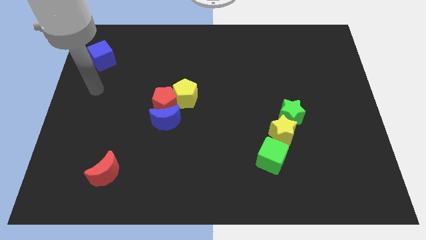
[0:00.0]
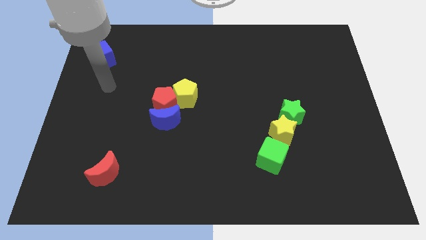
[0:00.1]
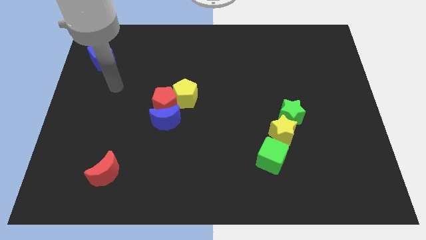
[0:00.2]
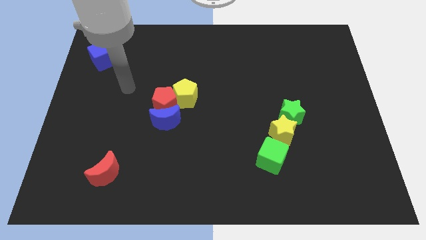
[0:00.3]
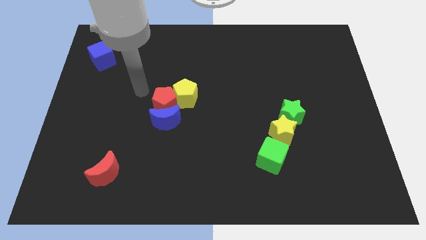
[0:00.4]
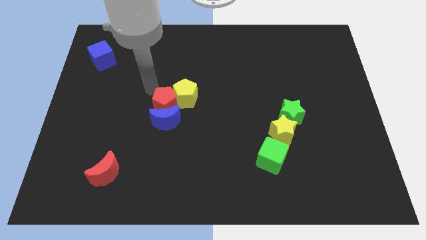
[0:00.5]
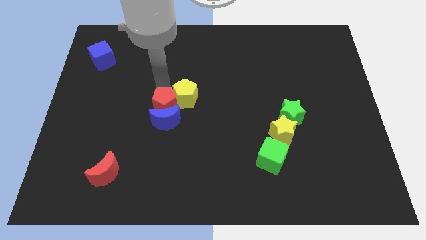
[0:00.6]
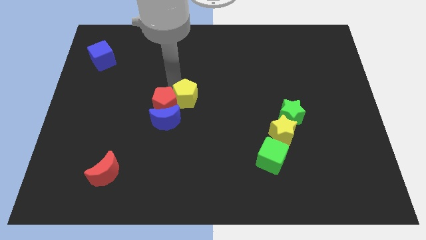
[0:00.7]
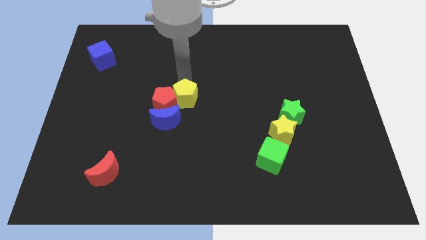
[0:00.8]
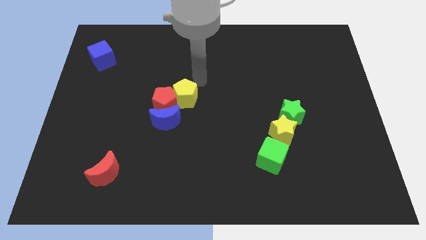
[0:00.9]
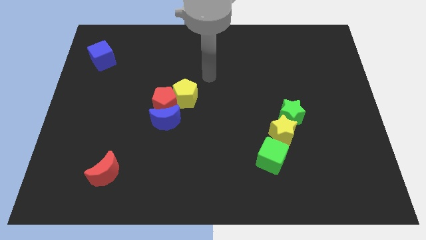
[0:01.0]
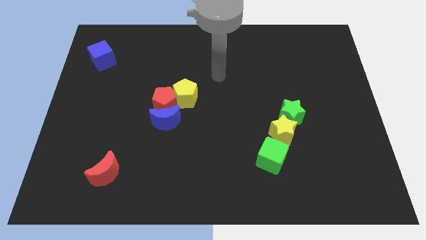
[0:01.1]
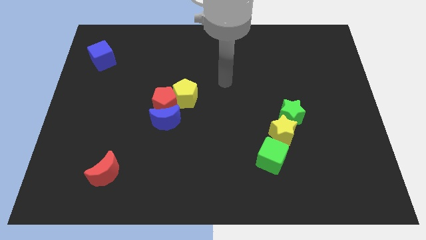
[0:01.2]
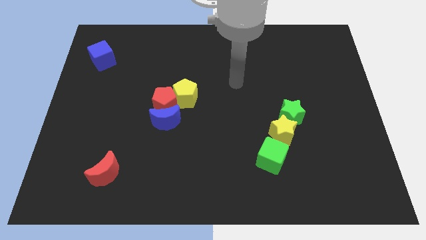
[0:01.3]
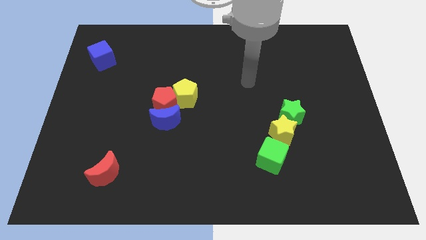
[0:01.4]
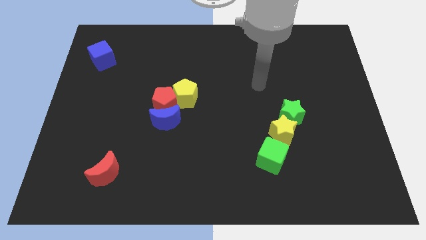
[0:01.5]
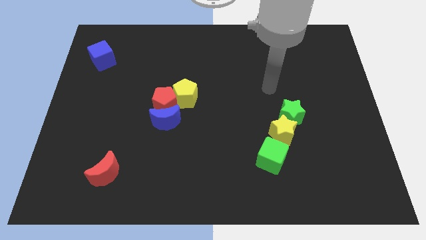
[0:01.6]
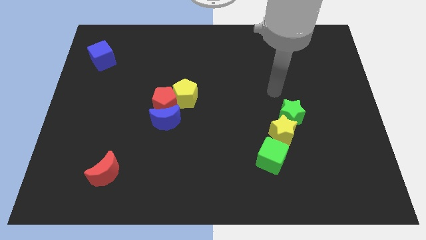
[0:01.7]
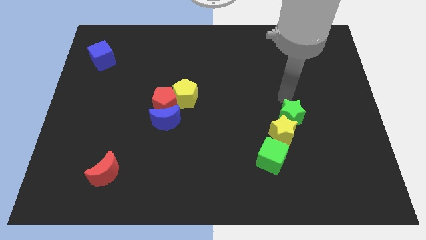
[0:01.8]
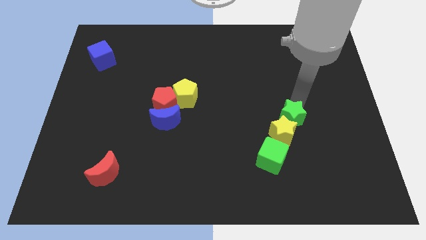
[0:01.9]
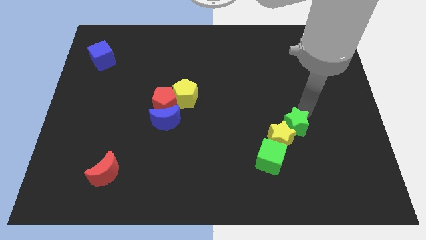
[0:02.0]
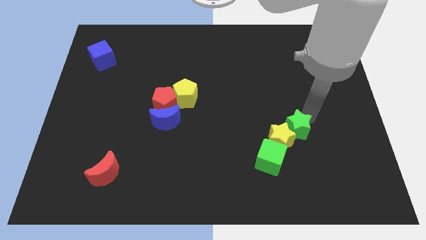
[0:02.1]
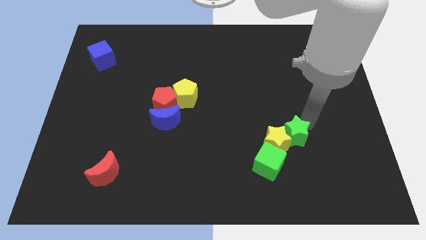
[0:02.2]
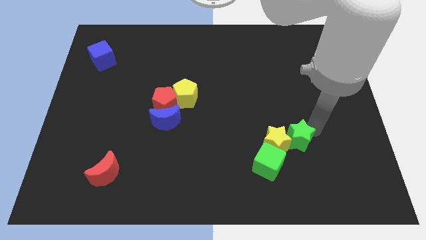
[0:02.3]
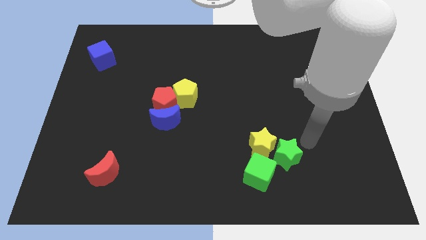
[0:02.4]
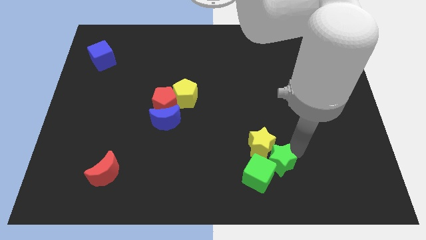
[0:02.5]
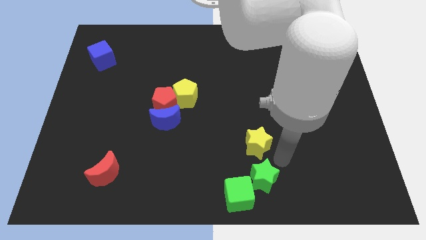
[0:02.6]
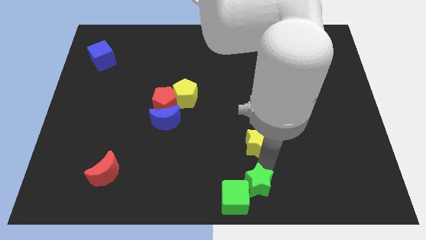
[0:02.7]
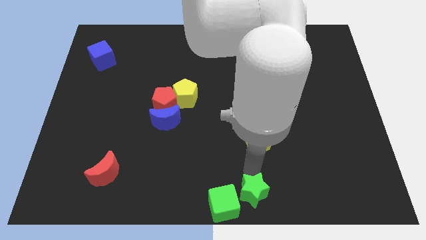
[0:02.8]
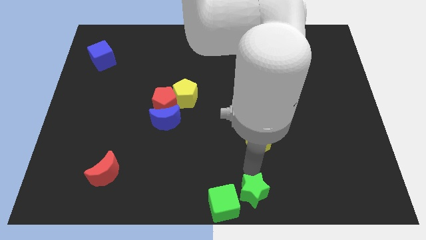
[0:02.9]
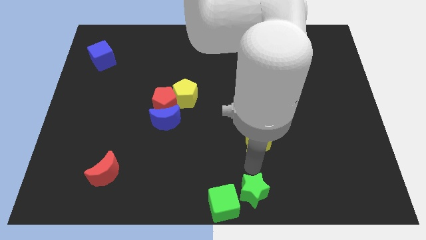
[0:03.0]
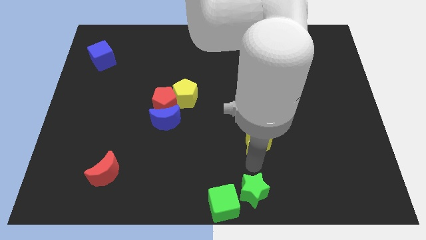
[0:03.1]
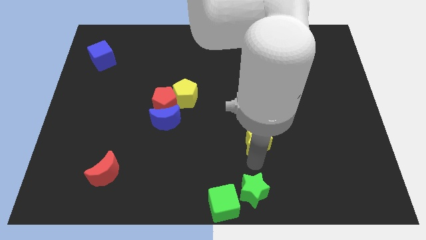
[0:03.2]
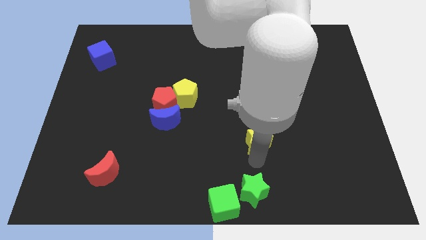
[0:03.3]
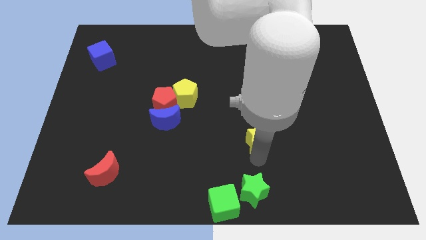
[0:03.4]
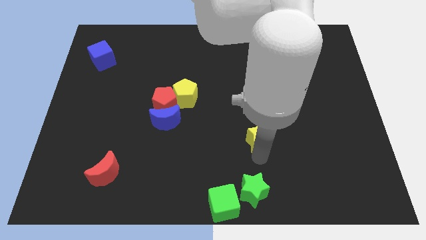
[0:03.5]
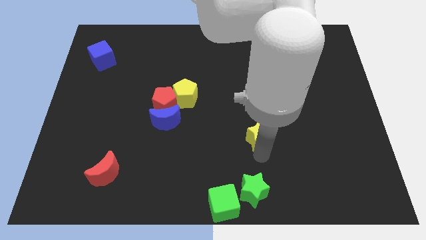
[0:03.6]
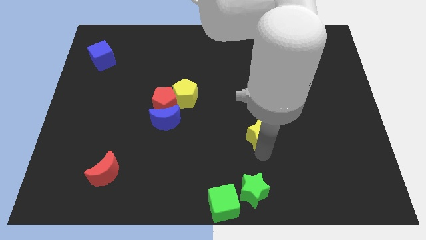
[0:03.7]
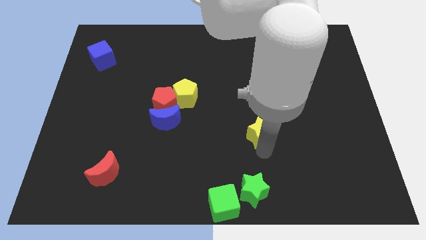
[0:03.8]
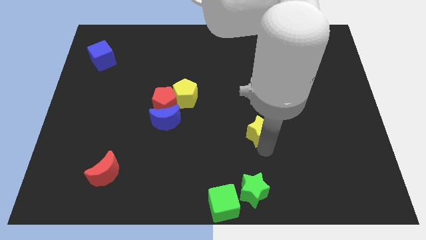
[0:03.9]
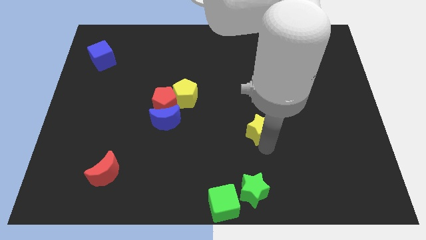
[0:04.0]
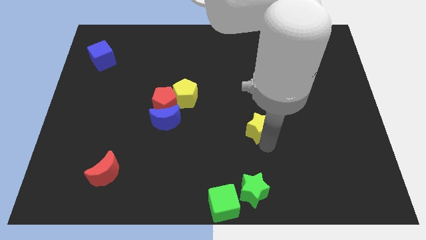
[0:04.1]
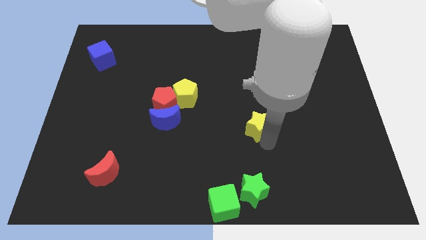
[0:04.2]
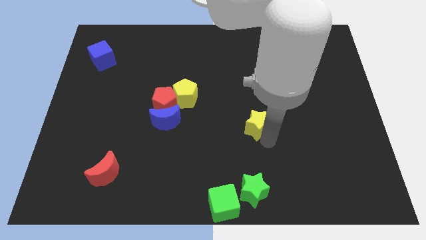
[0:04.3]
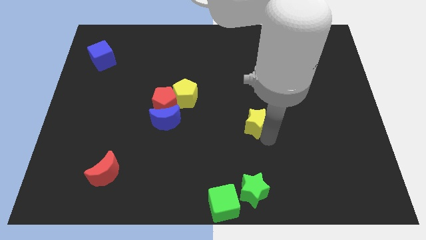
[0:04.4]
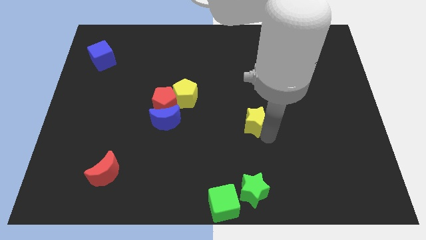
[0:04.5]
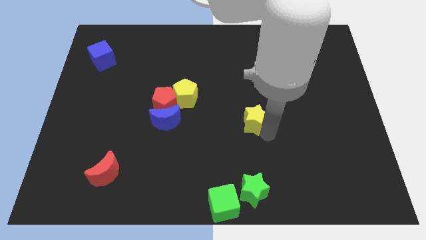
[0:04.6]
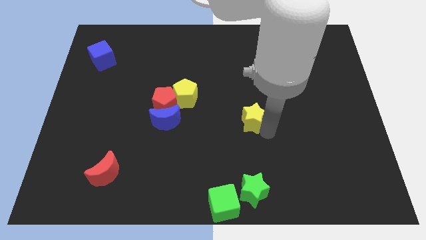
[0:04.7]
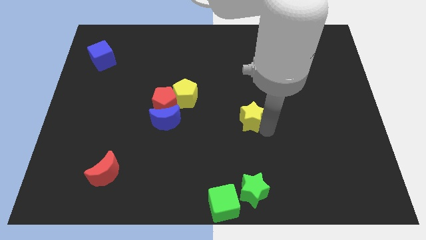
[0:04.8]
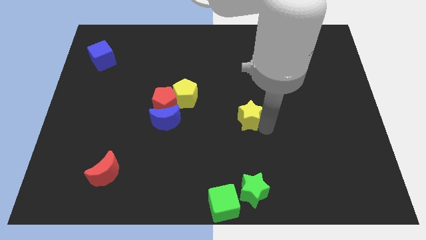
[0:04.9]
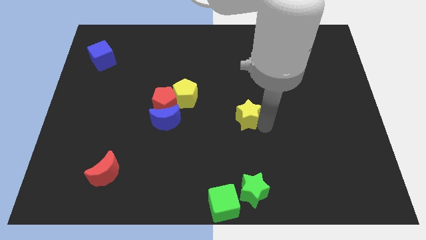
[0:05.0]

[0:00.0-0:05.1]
move the yellow star to the left a little bit

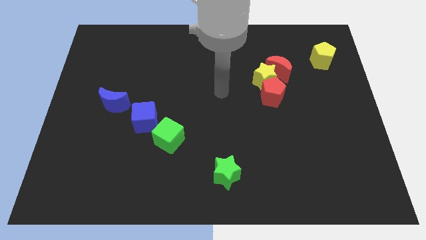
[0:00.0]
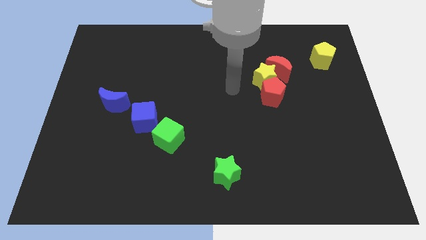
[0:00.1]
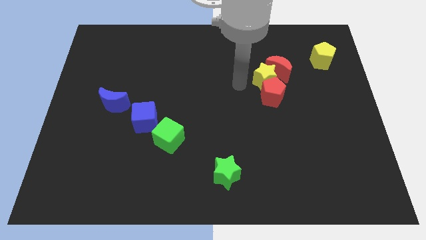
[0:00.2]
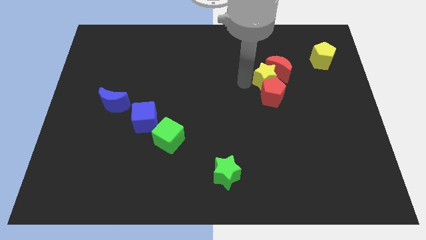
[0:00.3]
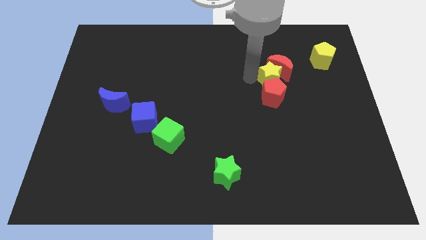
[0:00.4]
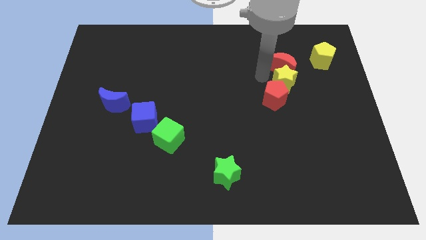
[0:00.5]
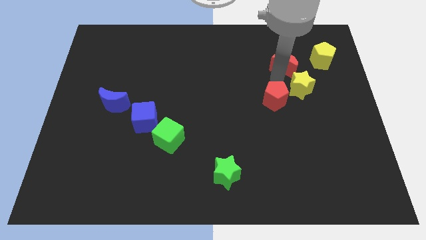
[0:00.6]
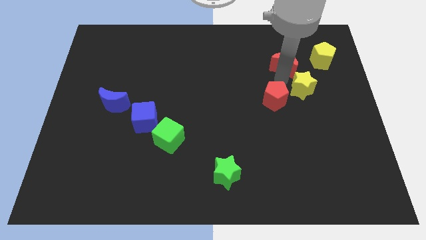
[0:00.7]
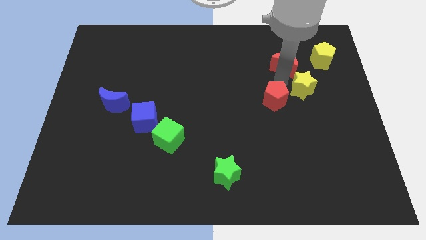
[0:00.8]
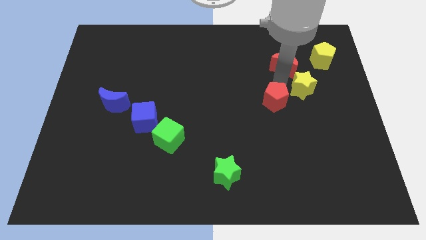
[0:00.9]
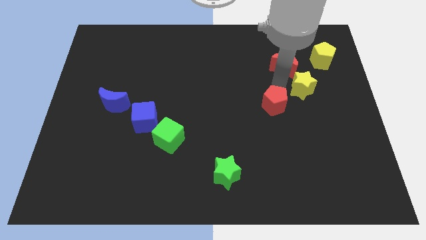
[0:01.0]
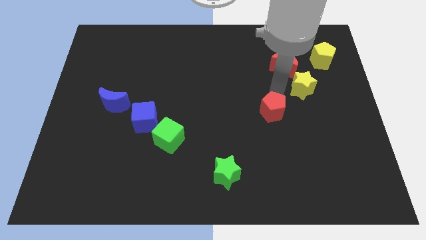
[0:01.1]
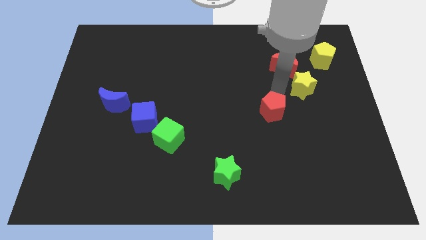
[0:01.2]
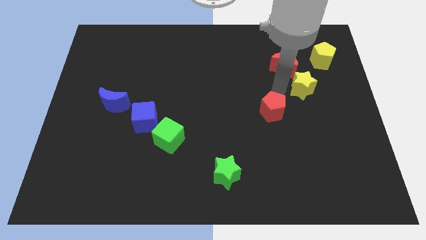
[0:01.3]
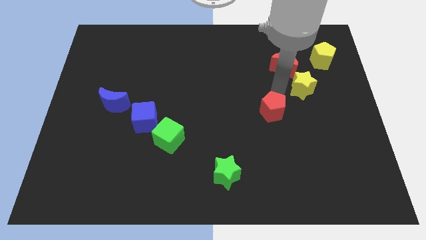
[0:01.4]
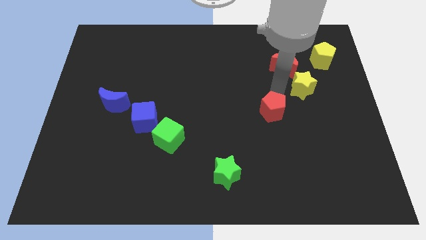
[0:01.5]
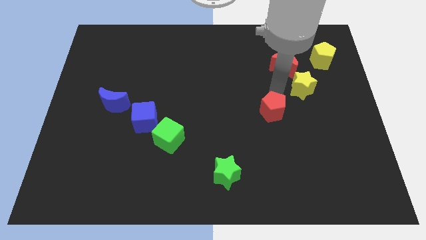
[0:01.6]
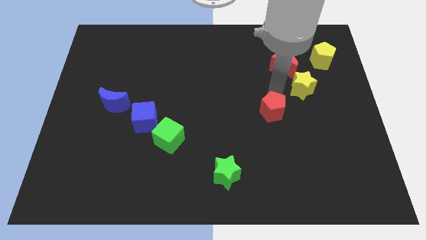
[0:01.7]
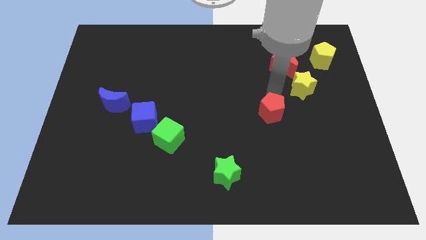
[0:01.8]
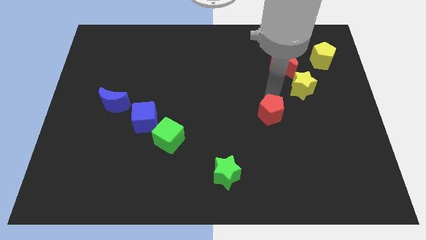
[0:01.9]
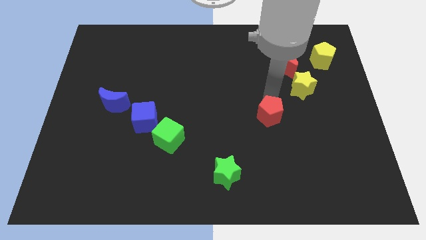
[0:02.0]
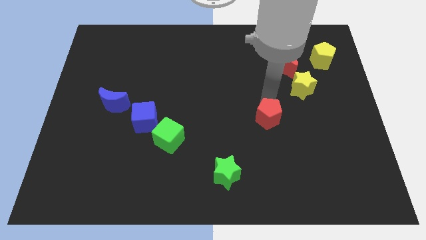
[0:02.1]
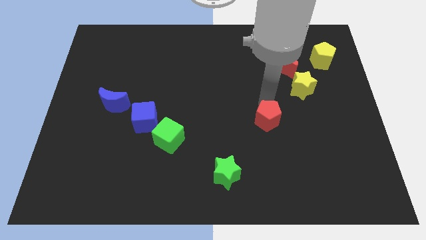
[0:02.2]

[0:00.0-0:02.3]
slightly slide the red pentagon down

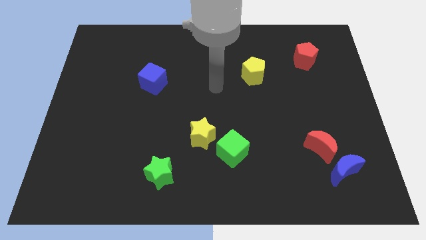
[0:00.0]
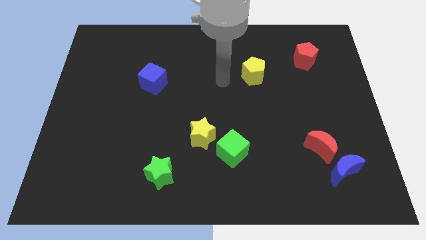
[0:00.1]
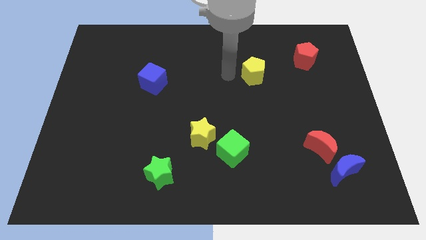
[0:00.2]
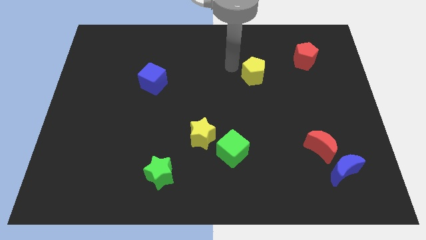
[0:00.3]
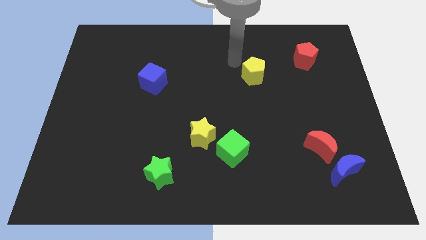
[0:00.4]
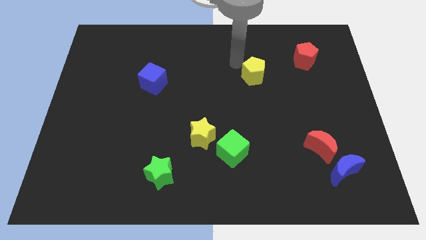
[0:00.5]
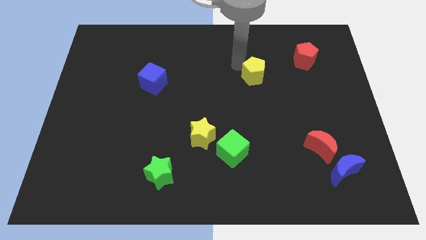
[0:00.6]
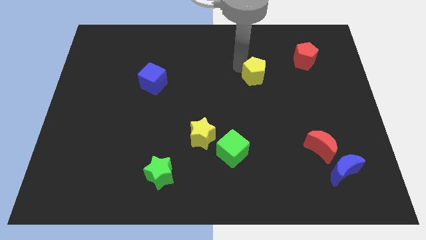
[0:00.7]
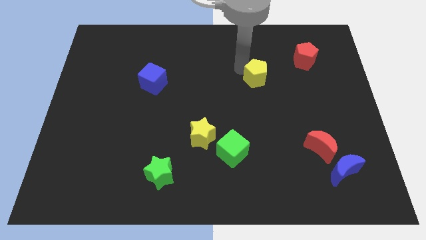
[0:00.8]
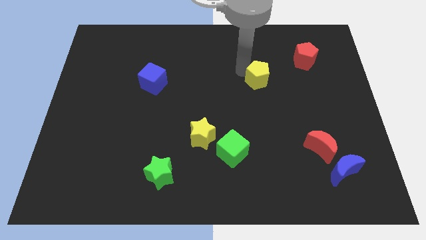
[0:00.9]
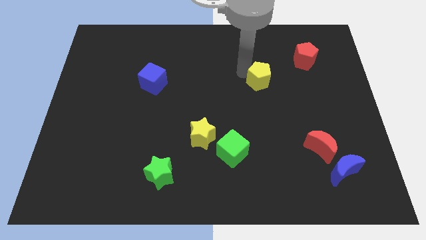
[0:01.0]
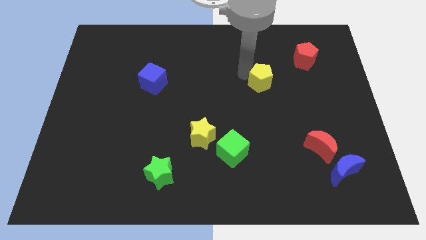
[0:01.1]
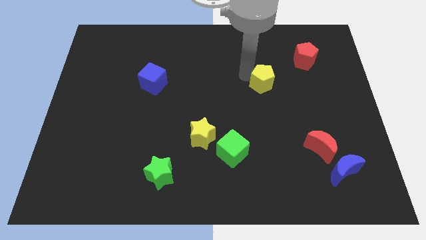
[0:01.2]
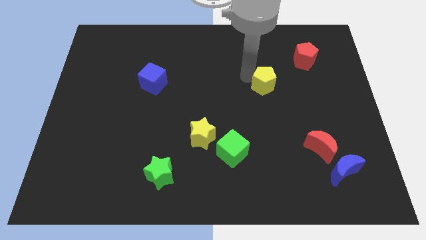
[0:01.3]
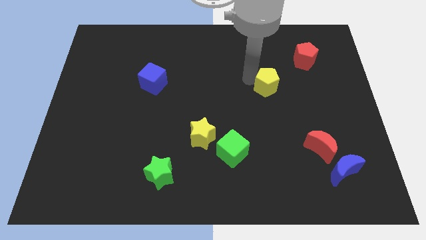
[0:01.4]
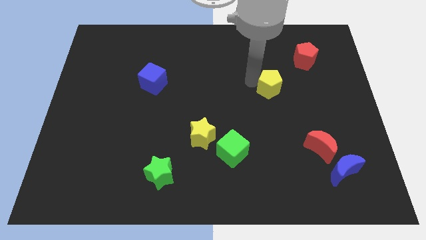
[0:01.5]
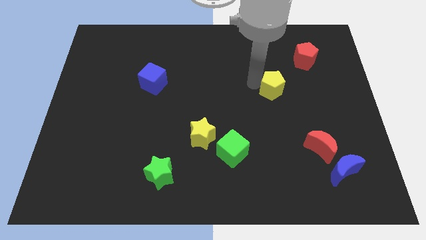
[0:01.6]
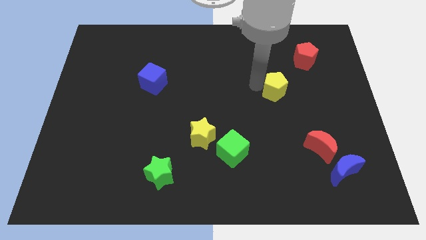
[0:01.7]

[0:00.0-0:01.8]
push the yellow pentagon slightly diagonally down and to the right
